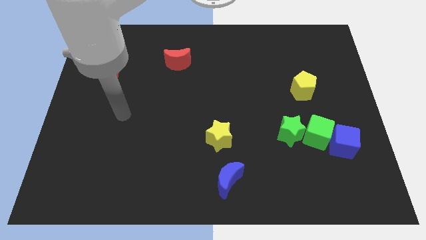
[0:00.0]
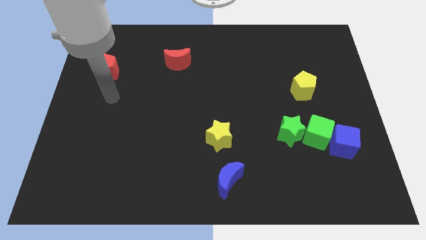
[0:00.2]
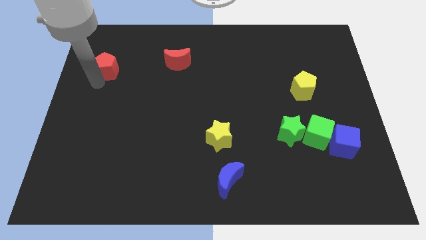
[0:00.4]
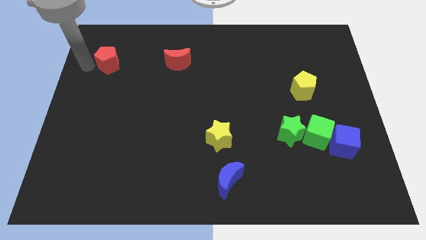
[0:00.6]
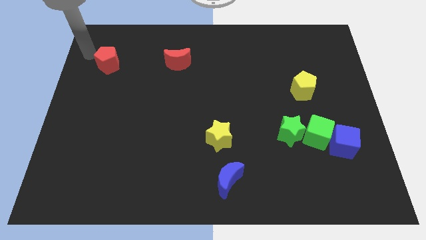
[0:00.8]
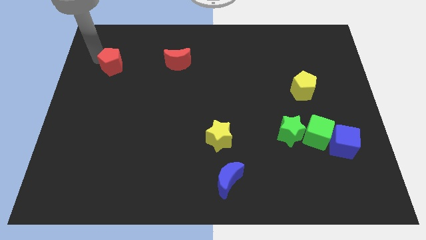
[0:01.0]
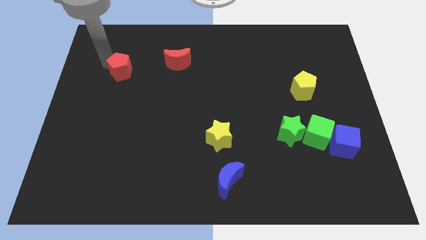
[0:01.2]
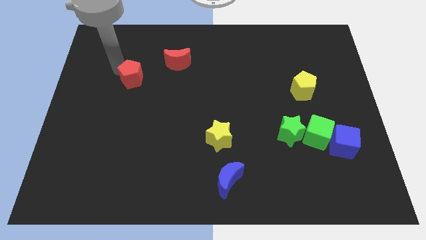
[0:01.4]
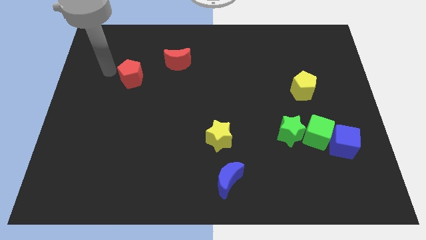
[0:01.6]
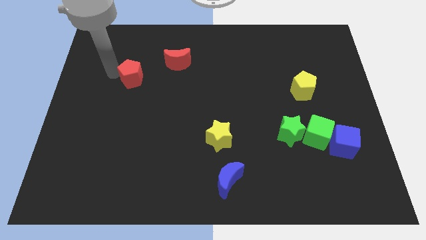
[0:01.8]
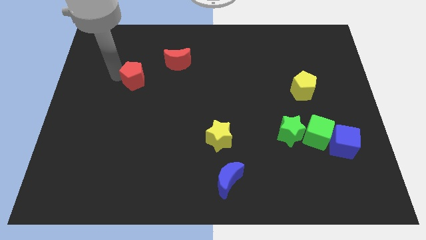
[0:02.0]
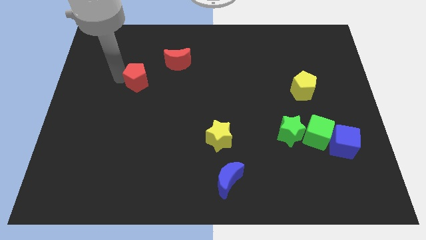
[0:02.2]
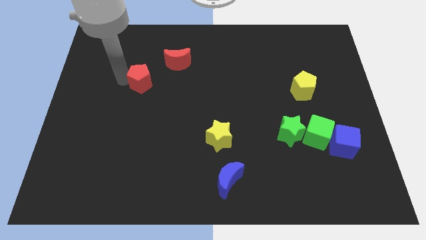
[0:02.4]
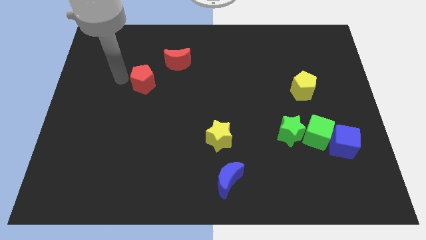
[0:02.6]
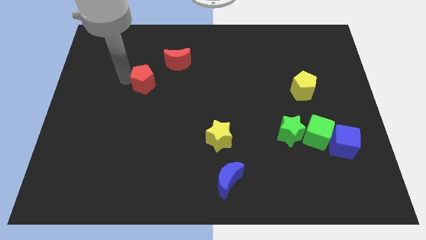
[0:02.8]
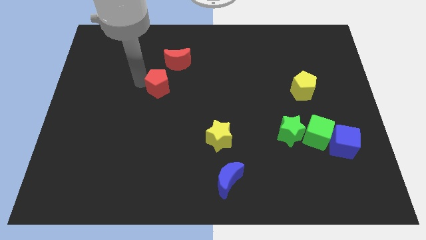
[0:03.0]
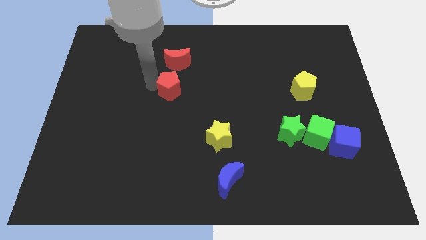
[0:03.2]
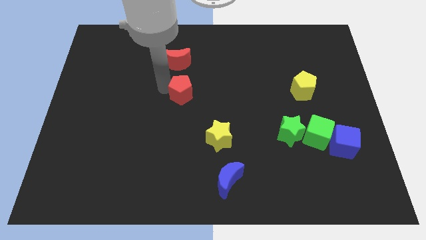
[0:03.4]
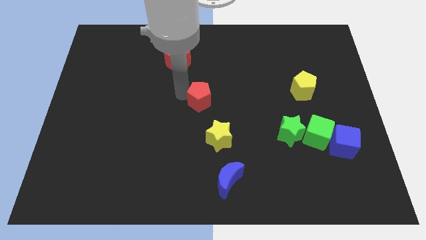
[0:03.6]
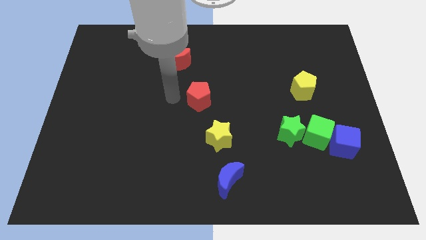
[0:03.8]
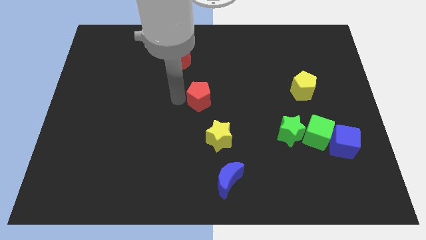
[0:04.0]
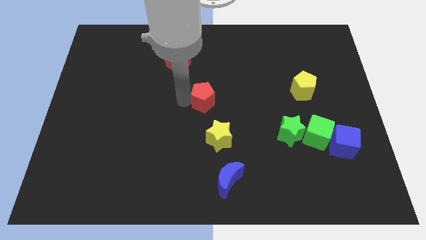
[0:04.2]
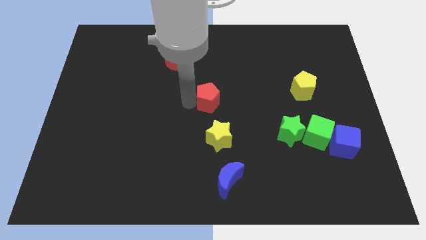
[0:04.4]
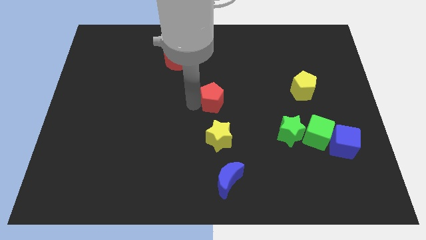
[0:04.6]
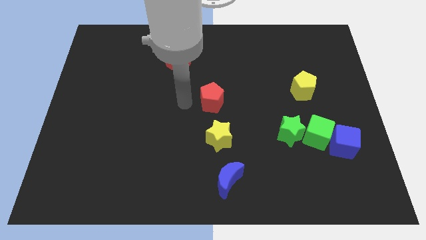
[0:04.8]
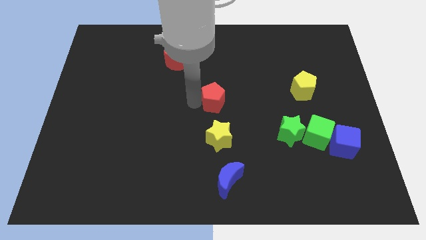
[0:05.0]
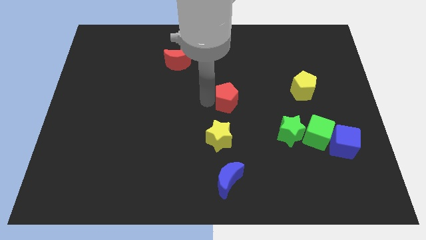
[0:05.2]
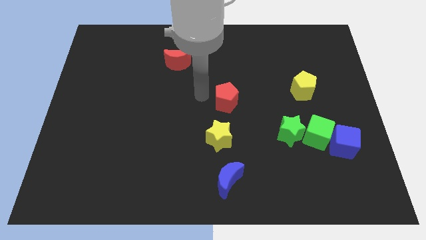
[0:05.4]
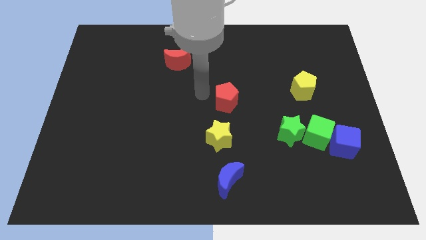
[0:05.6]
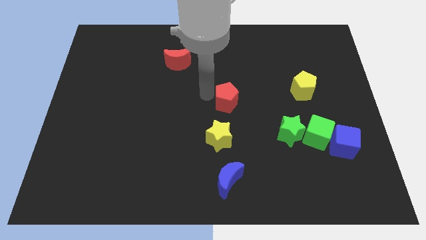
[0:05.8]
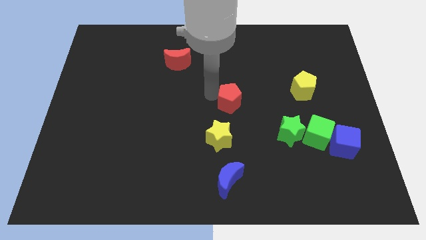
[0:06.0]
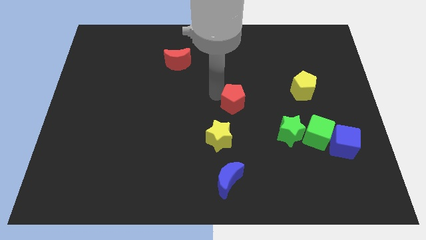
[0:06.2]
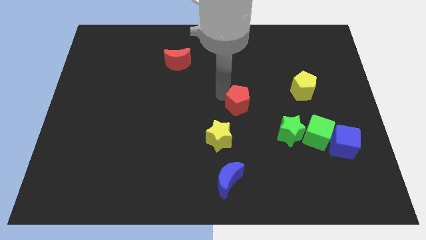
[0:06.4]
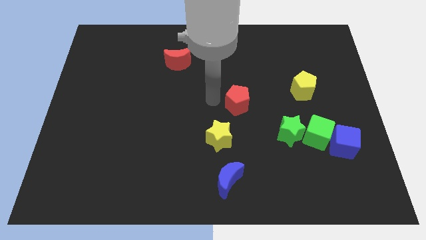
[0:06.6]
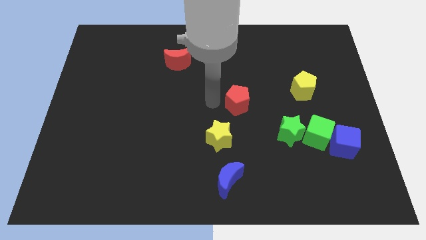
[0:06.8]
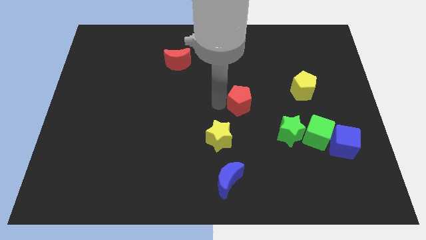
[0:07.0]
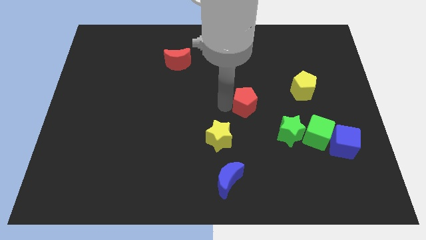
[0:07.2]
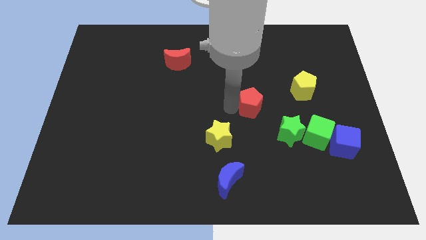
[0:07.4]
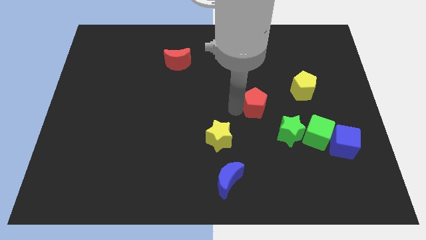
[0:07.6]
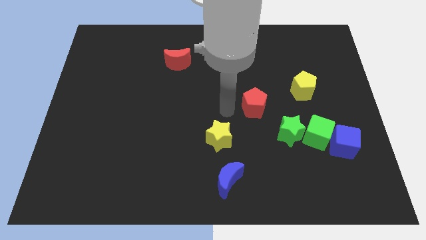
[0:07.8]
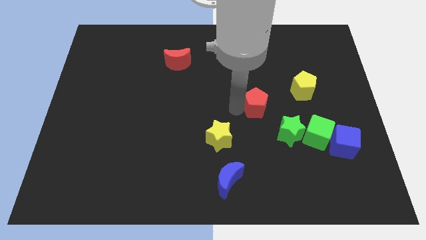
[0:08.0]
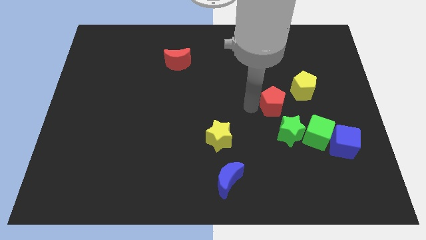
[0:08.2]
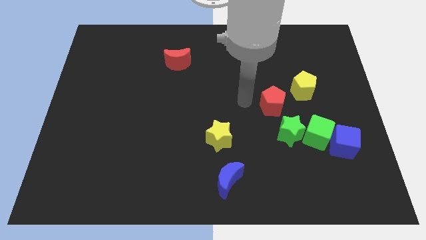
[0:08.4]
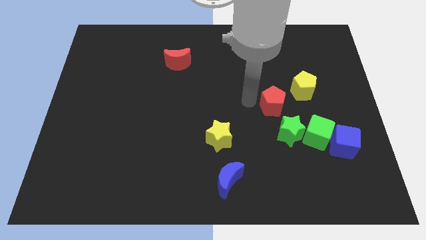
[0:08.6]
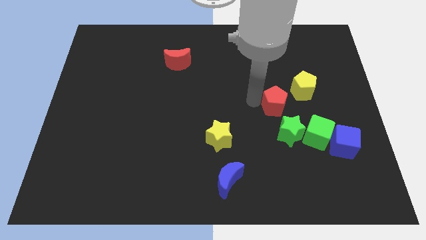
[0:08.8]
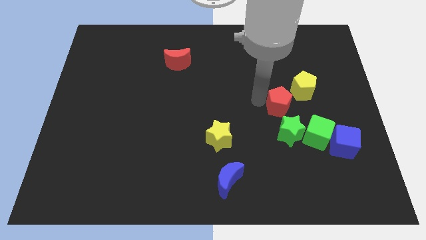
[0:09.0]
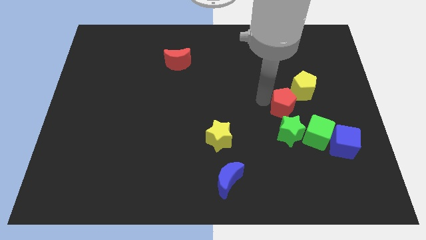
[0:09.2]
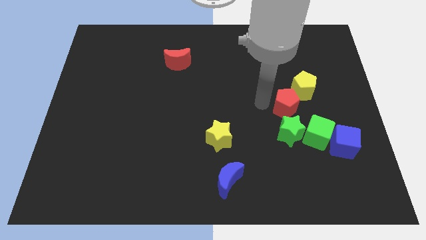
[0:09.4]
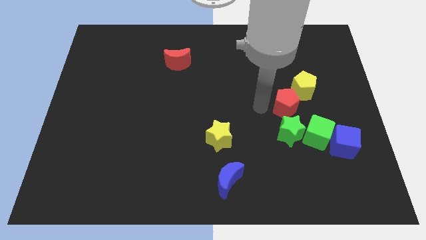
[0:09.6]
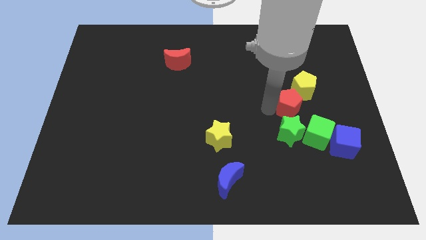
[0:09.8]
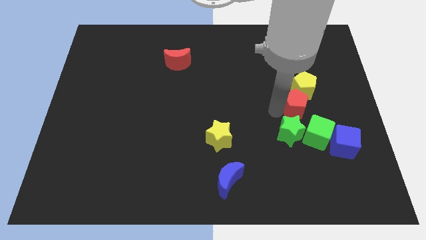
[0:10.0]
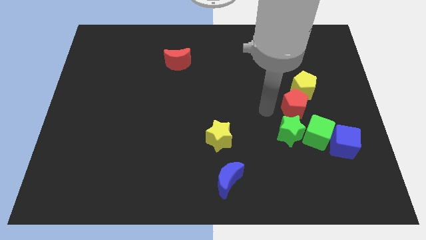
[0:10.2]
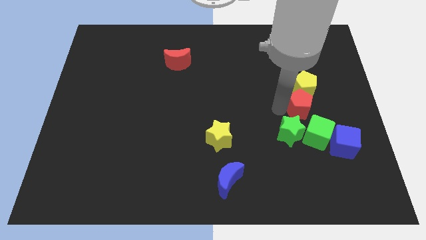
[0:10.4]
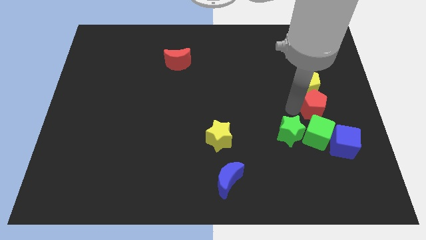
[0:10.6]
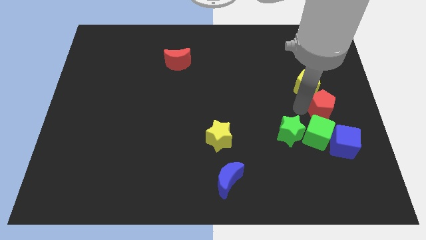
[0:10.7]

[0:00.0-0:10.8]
move the red pentagon to the right side

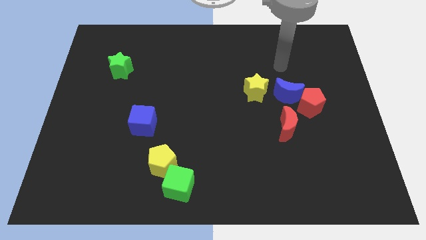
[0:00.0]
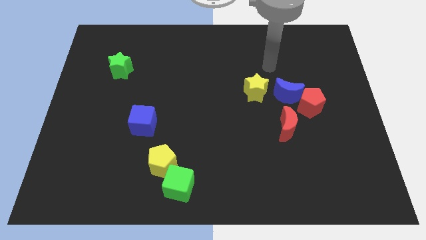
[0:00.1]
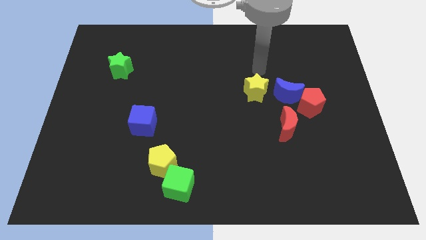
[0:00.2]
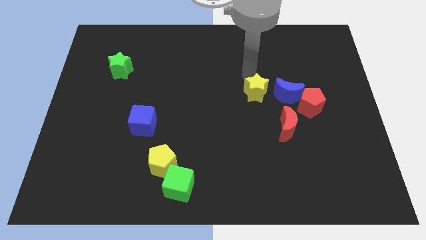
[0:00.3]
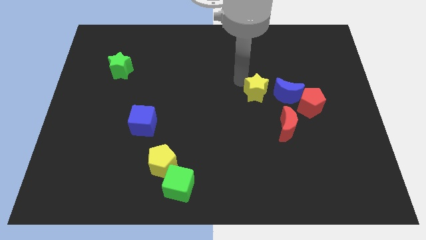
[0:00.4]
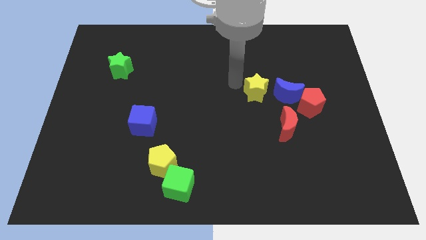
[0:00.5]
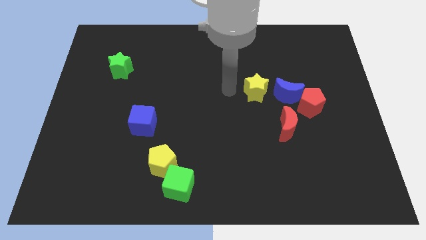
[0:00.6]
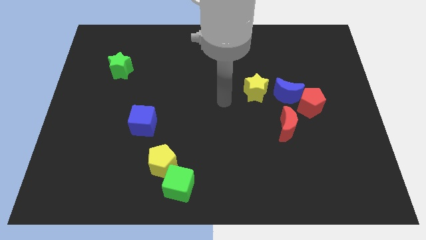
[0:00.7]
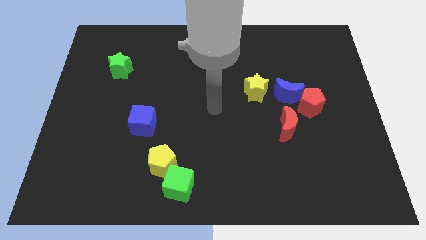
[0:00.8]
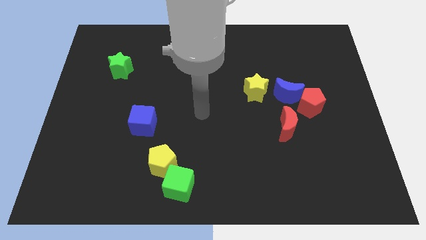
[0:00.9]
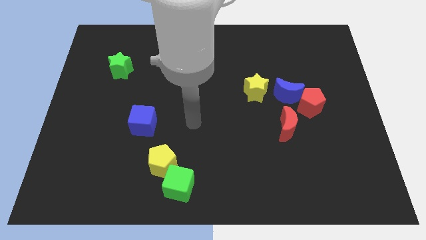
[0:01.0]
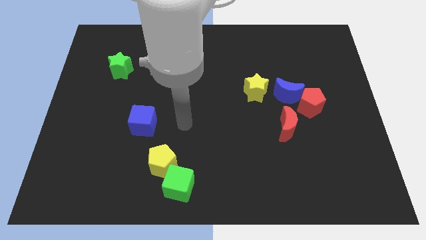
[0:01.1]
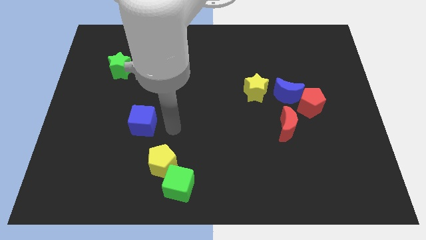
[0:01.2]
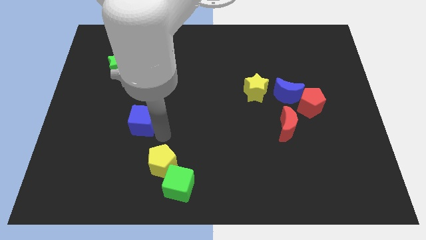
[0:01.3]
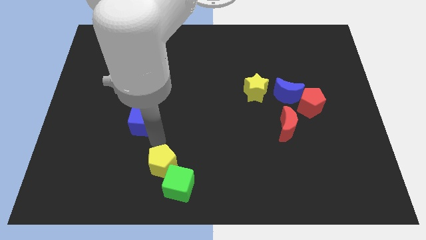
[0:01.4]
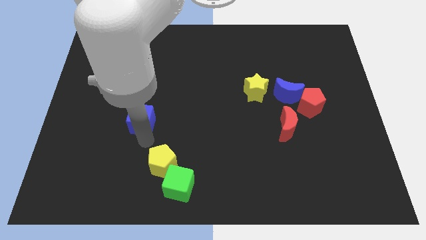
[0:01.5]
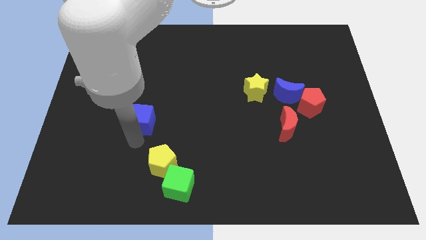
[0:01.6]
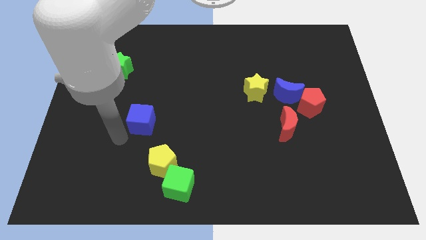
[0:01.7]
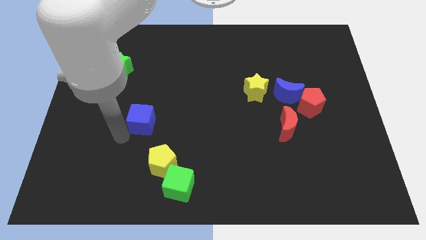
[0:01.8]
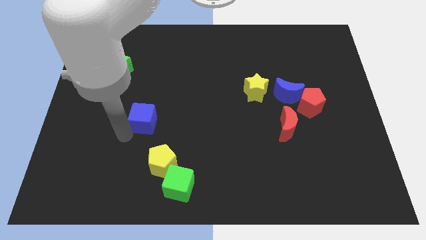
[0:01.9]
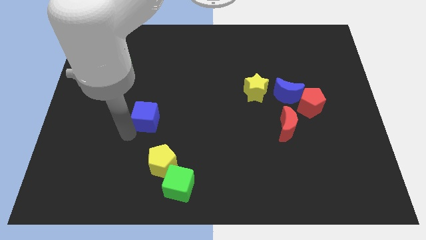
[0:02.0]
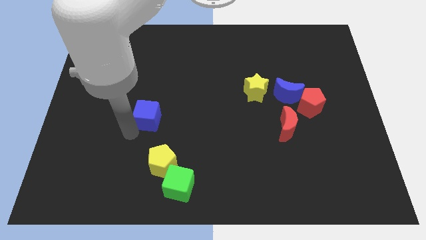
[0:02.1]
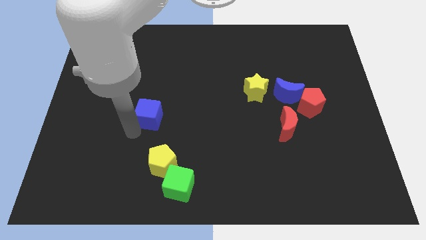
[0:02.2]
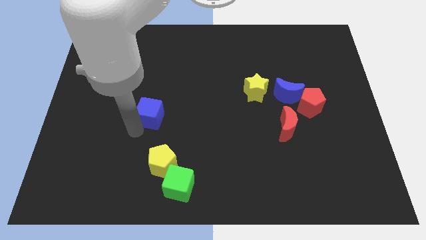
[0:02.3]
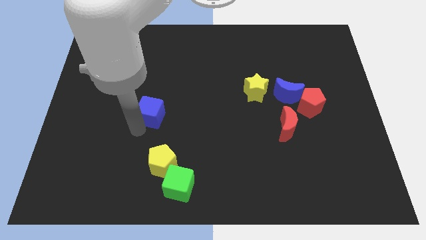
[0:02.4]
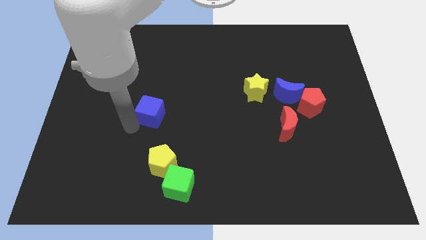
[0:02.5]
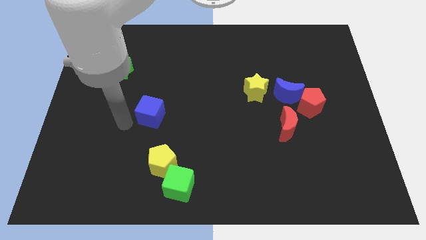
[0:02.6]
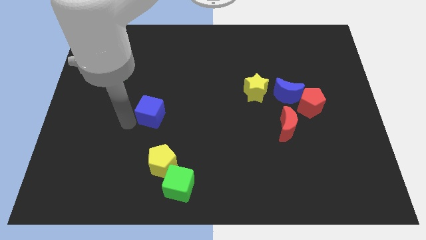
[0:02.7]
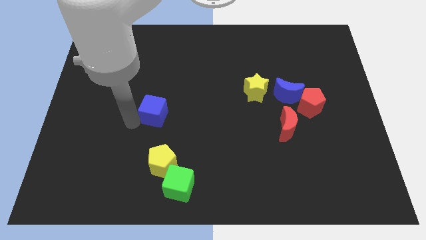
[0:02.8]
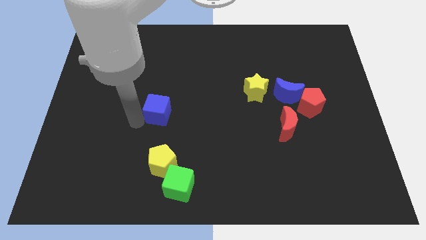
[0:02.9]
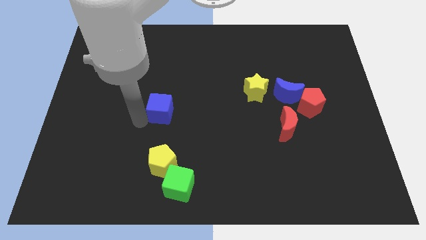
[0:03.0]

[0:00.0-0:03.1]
put the blue cube to the center of the board
